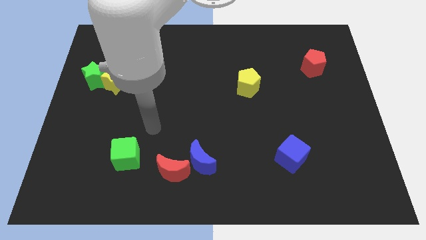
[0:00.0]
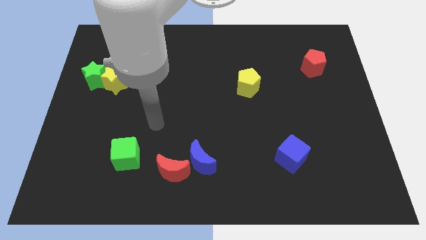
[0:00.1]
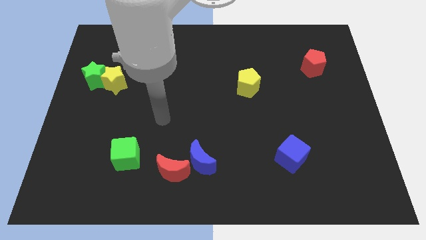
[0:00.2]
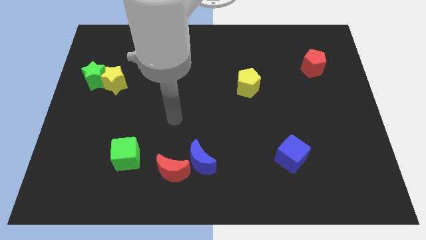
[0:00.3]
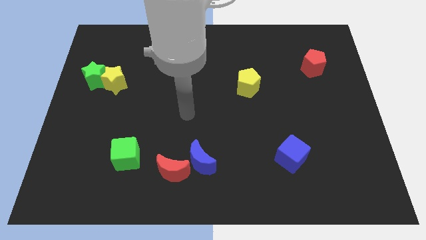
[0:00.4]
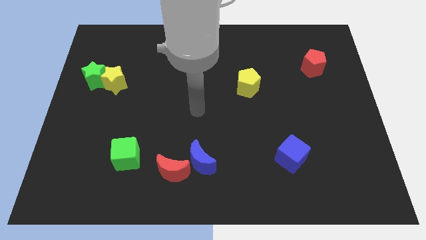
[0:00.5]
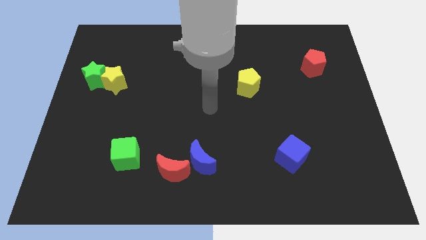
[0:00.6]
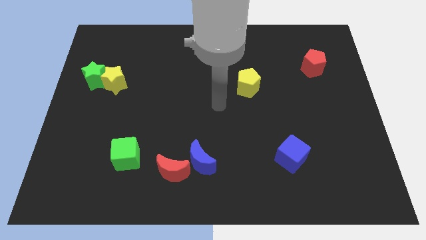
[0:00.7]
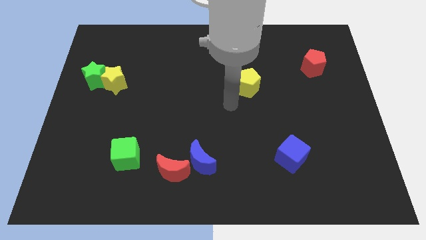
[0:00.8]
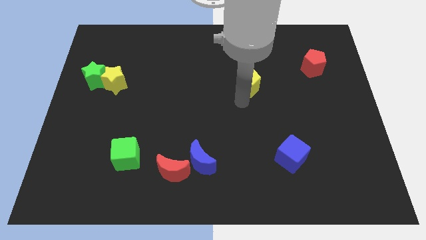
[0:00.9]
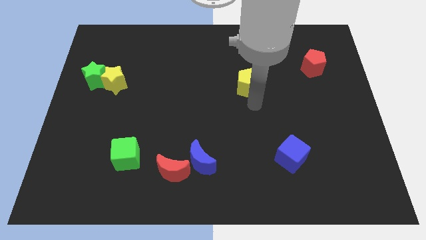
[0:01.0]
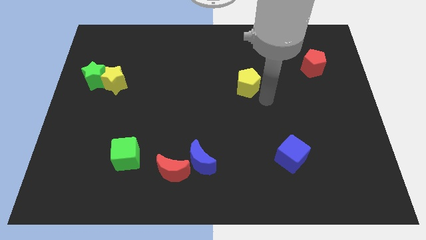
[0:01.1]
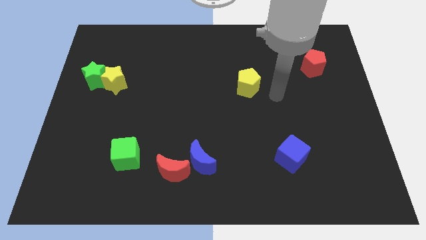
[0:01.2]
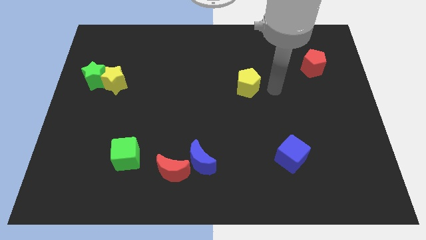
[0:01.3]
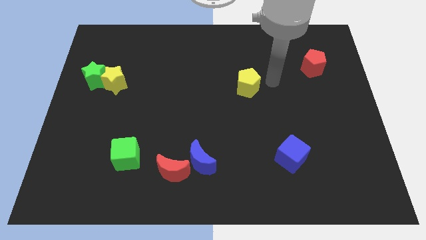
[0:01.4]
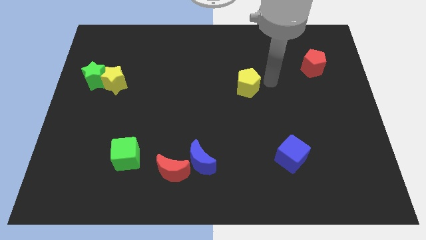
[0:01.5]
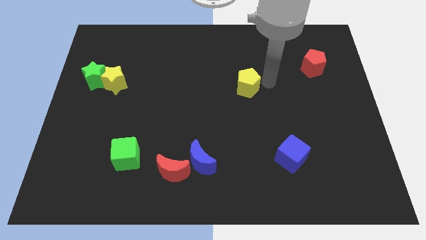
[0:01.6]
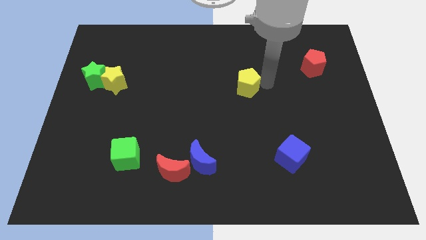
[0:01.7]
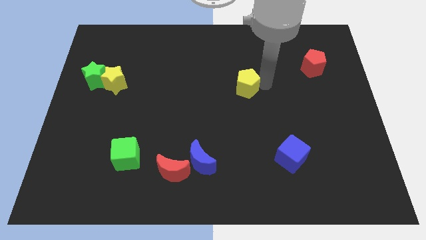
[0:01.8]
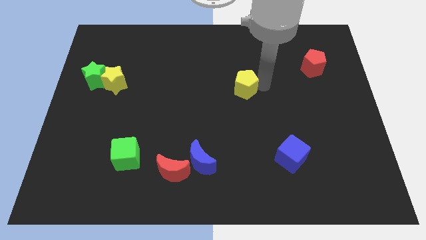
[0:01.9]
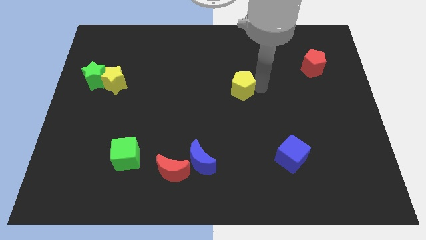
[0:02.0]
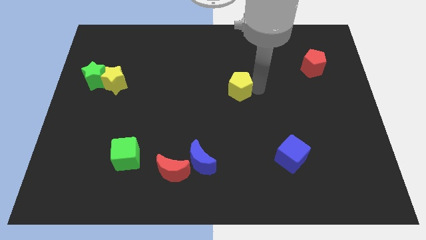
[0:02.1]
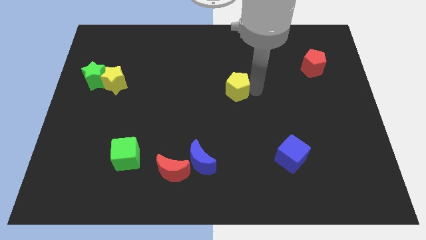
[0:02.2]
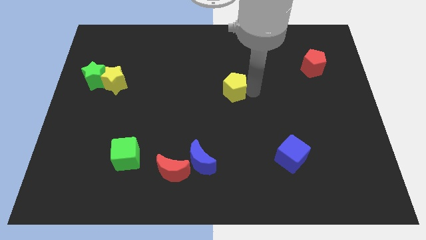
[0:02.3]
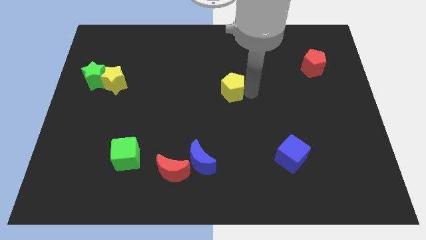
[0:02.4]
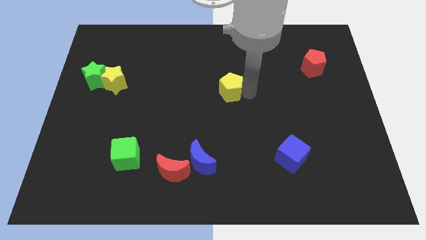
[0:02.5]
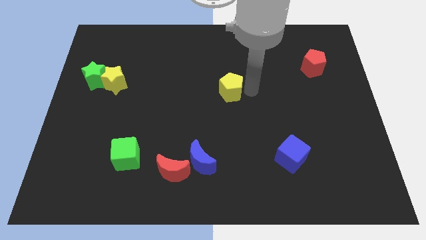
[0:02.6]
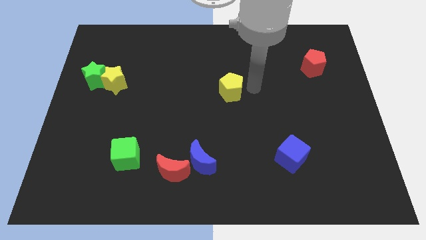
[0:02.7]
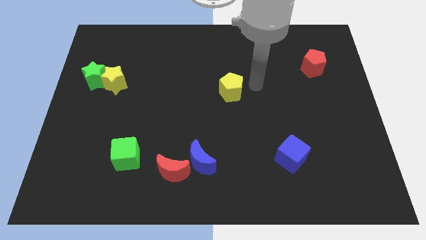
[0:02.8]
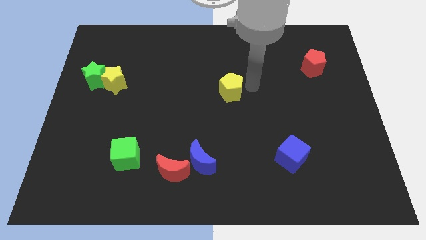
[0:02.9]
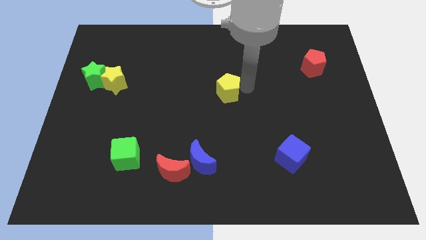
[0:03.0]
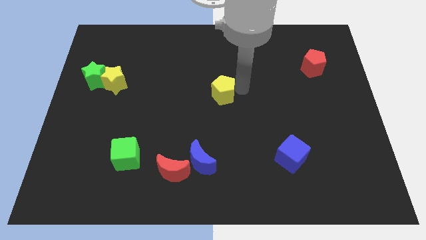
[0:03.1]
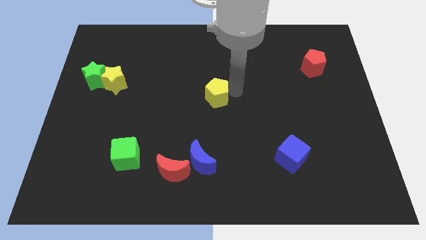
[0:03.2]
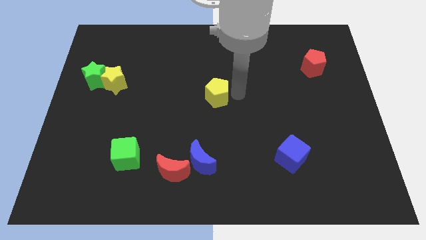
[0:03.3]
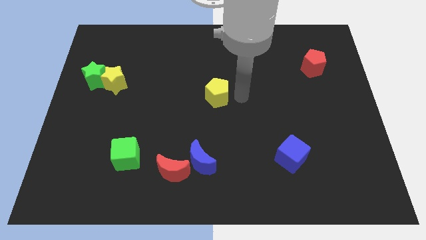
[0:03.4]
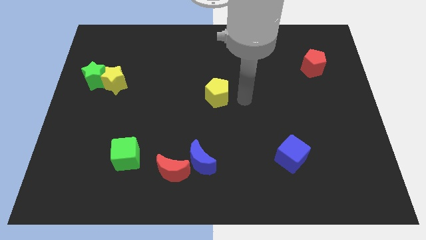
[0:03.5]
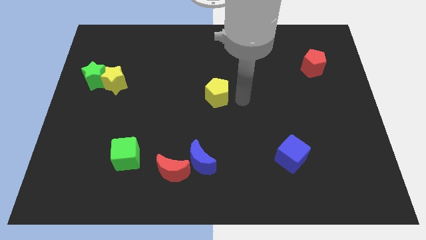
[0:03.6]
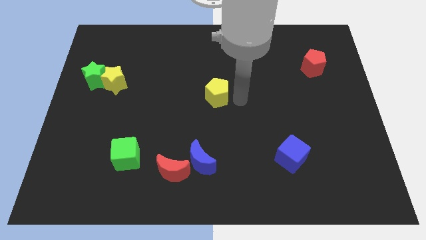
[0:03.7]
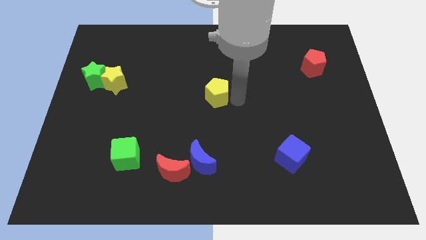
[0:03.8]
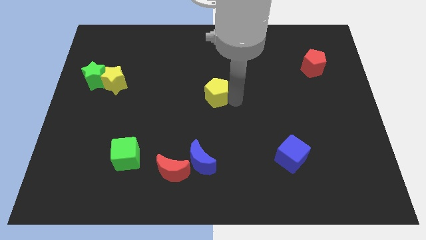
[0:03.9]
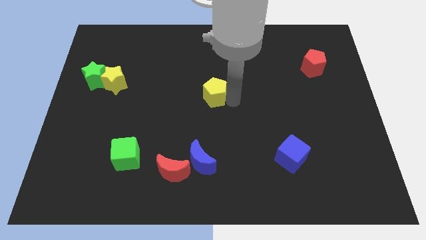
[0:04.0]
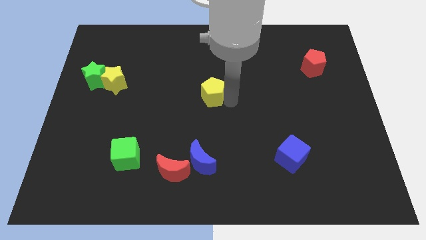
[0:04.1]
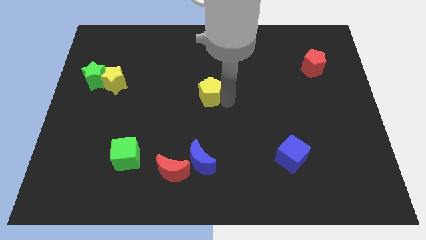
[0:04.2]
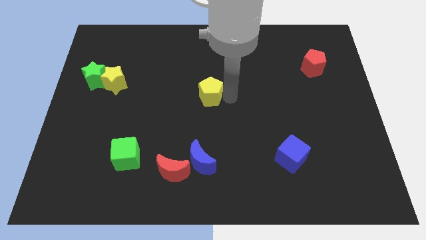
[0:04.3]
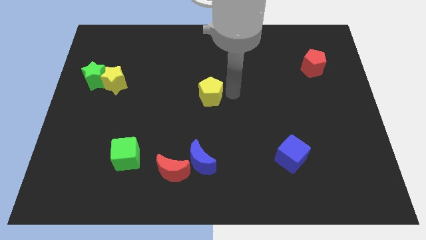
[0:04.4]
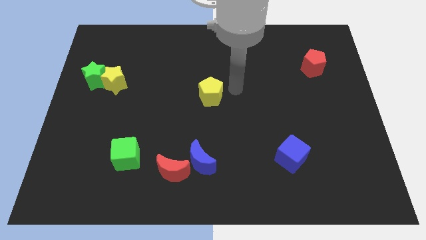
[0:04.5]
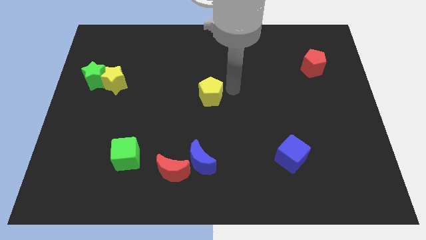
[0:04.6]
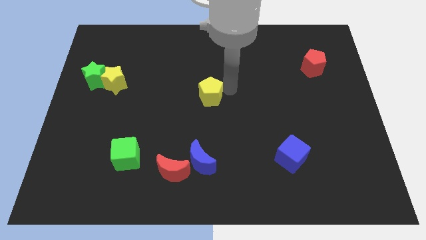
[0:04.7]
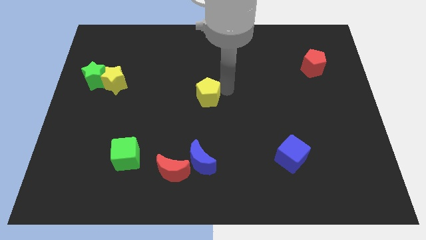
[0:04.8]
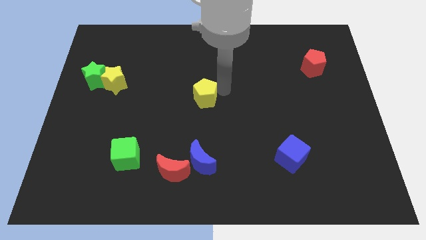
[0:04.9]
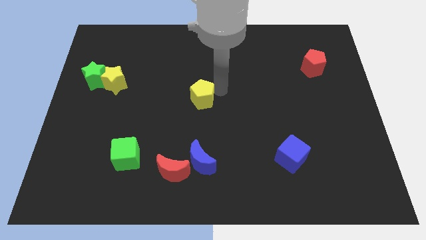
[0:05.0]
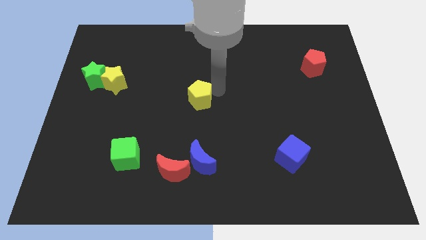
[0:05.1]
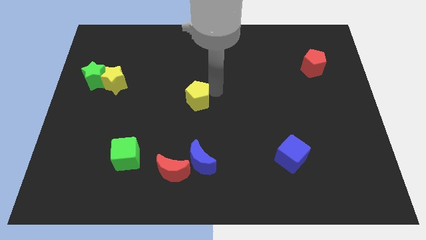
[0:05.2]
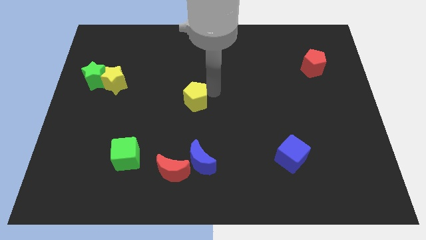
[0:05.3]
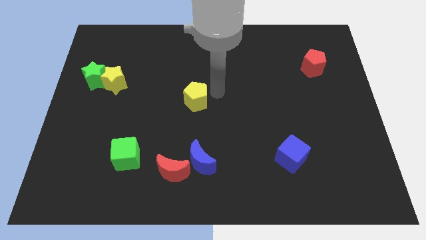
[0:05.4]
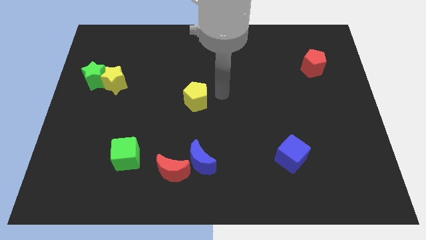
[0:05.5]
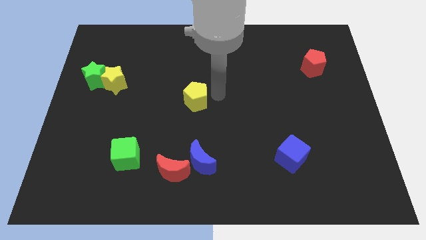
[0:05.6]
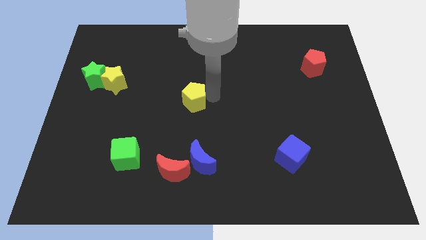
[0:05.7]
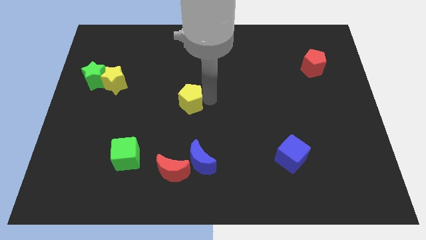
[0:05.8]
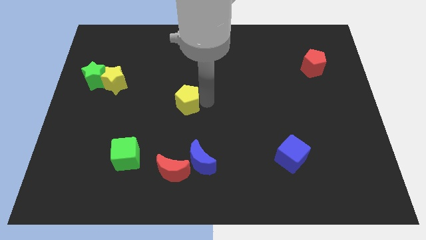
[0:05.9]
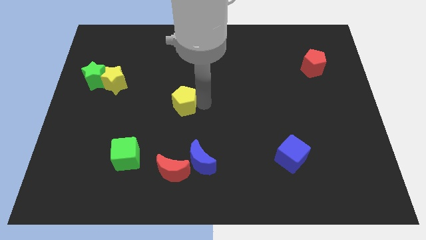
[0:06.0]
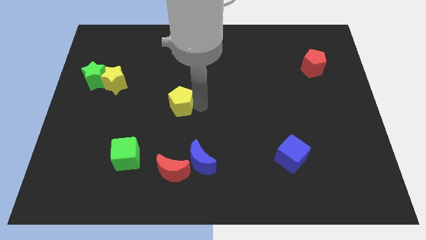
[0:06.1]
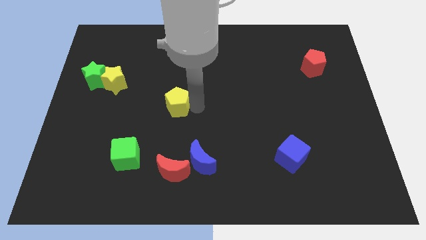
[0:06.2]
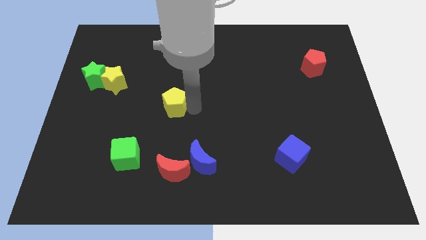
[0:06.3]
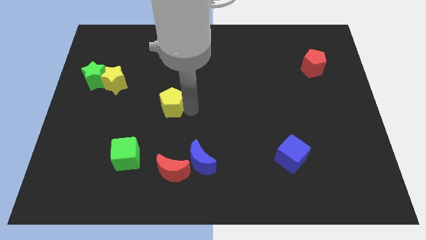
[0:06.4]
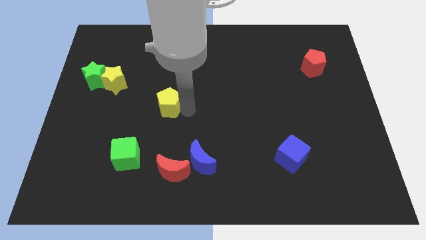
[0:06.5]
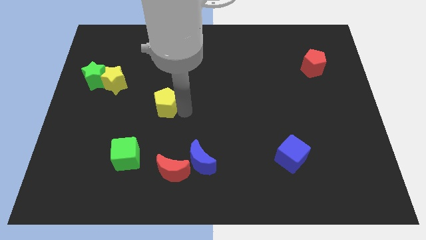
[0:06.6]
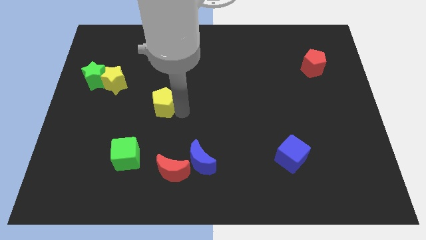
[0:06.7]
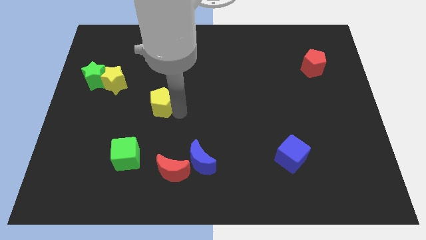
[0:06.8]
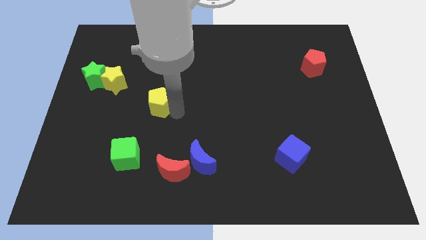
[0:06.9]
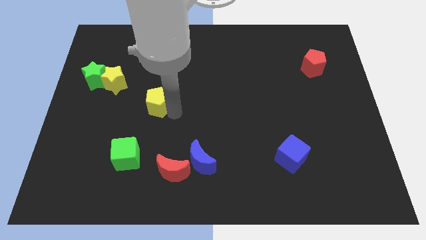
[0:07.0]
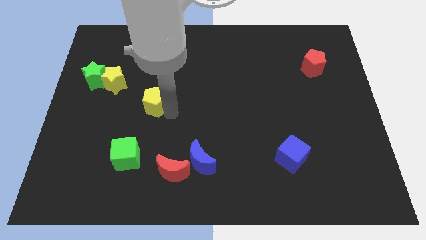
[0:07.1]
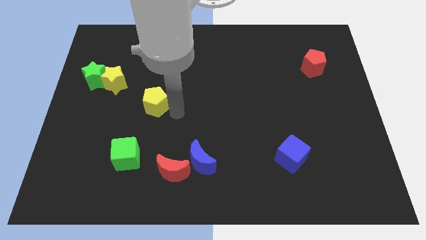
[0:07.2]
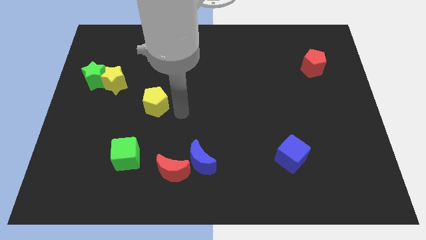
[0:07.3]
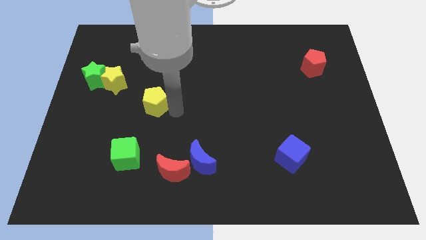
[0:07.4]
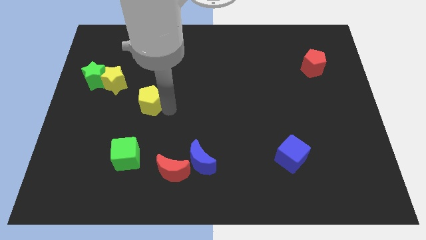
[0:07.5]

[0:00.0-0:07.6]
move the yellow pentagon diagonally down and to the right of the yellow star
